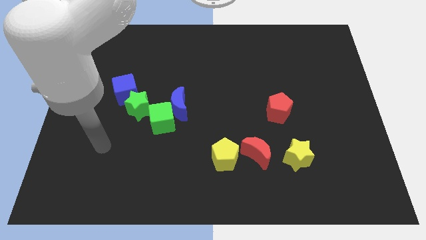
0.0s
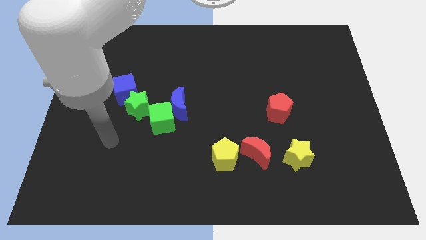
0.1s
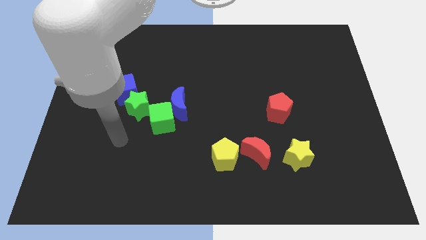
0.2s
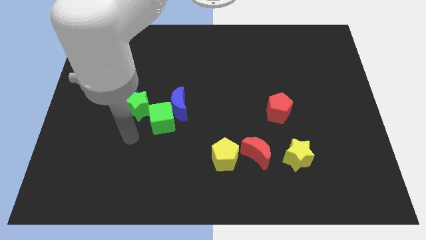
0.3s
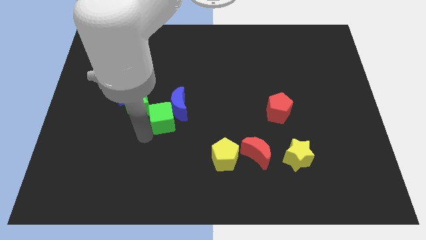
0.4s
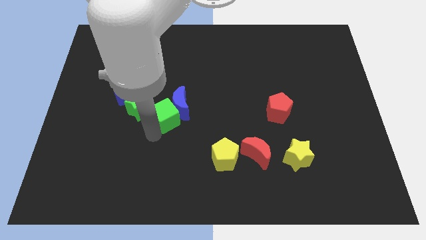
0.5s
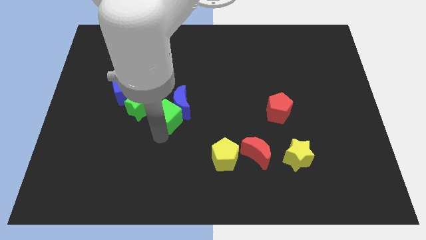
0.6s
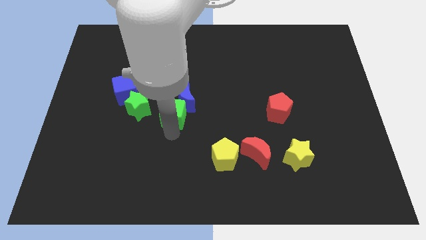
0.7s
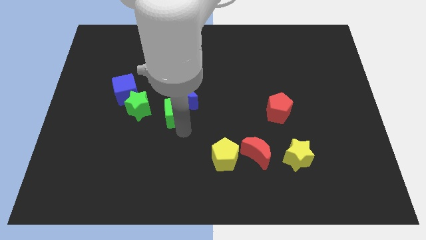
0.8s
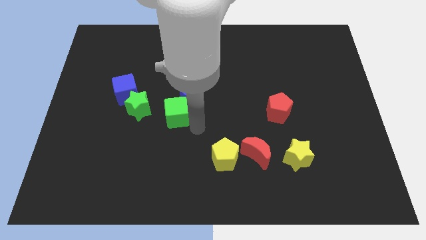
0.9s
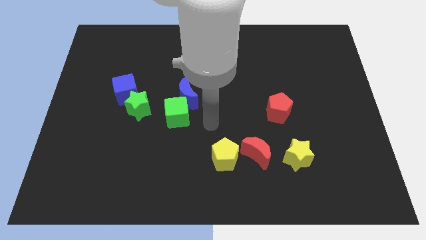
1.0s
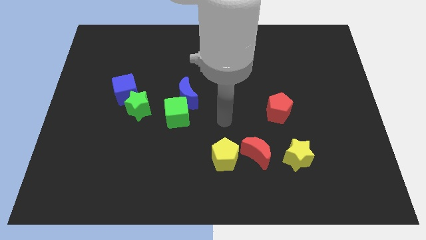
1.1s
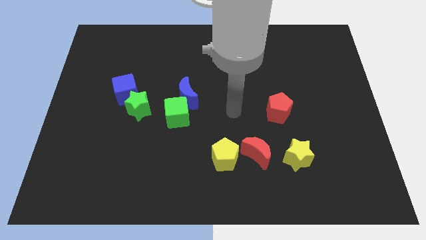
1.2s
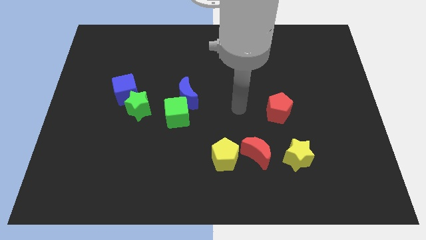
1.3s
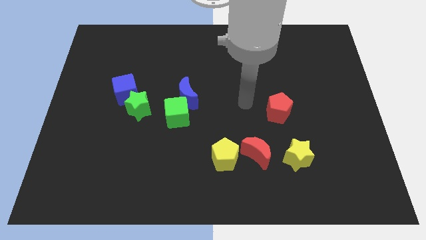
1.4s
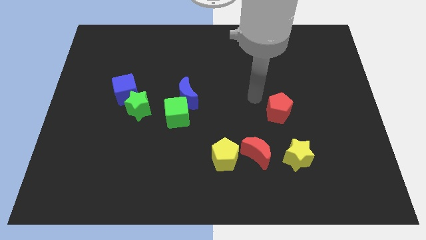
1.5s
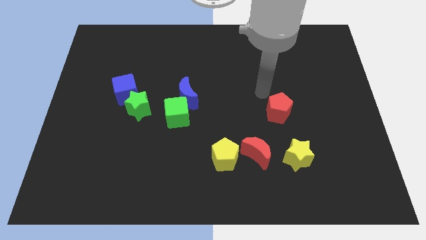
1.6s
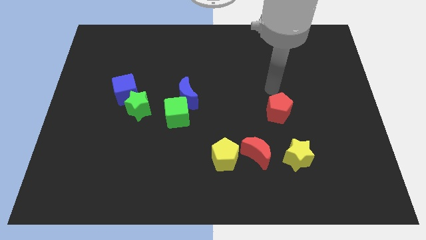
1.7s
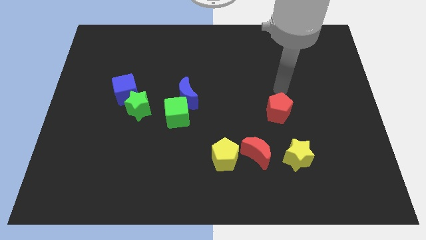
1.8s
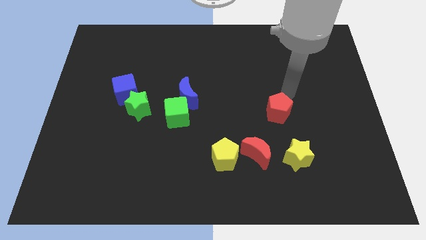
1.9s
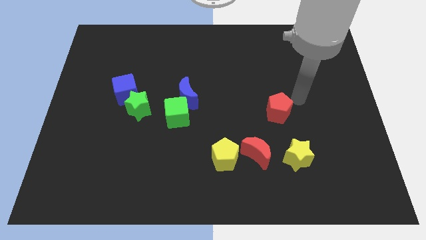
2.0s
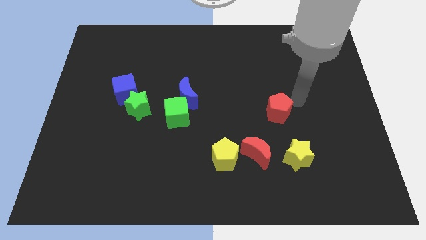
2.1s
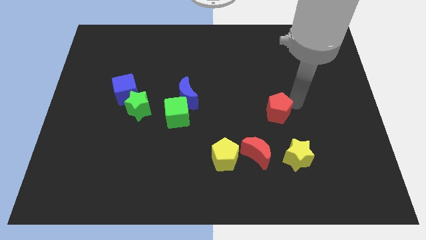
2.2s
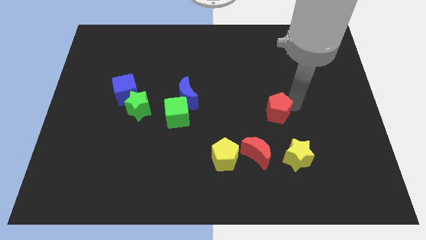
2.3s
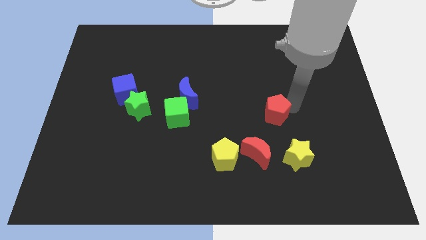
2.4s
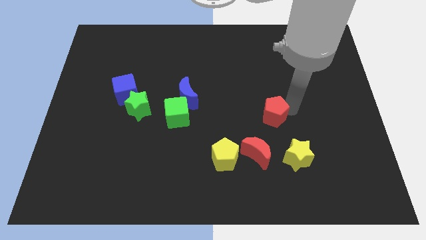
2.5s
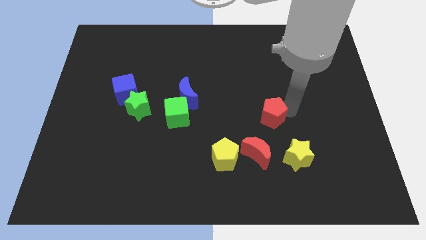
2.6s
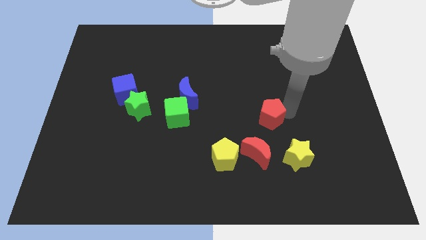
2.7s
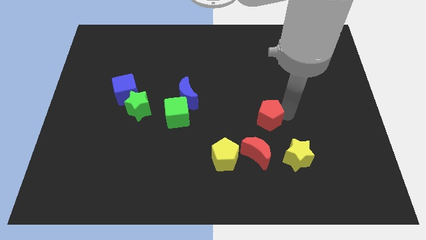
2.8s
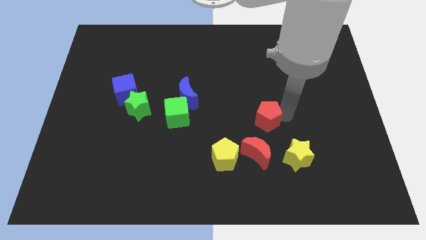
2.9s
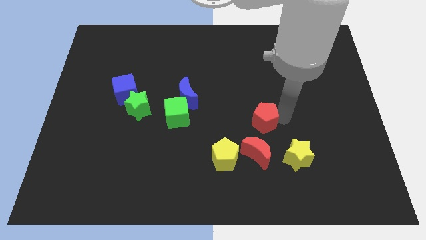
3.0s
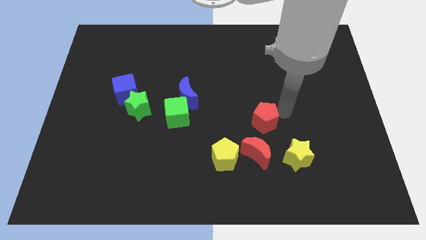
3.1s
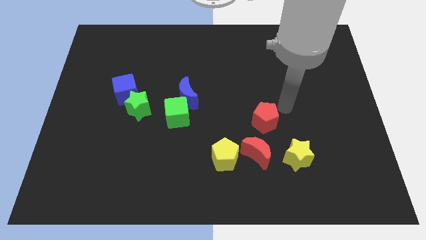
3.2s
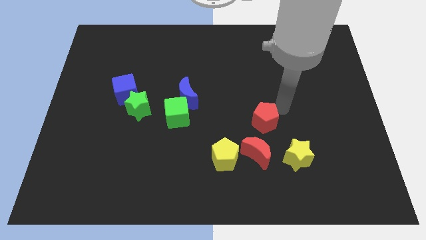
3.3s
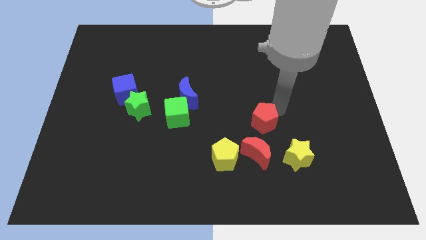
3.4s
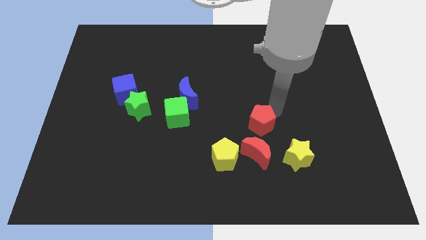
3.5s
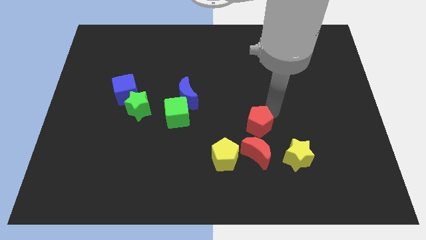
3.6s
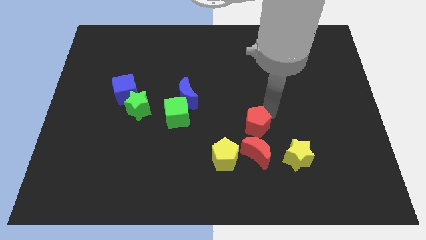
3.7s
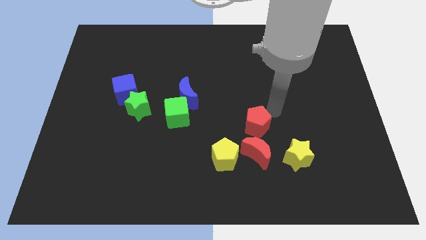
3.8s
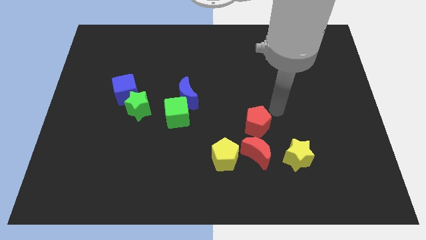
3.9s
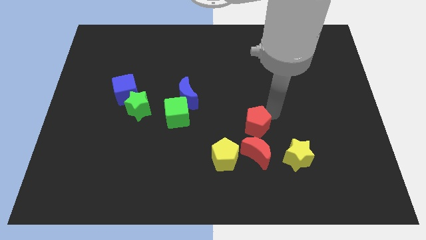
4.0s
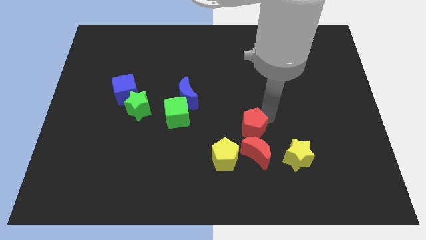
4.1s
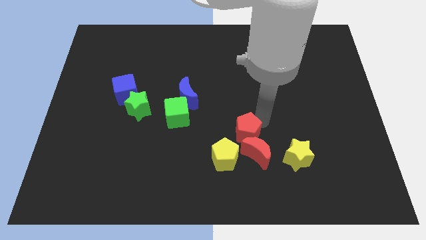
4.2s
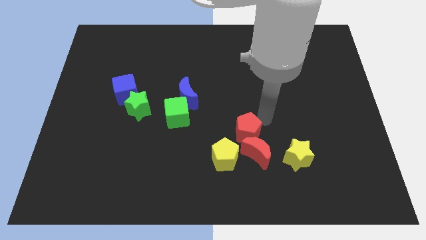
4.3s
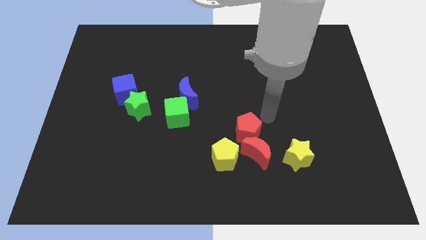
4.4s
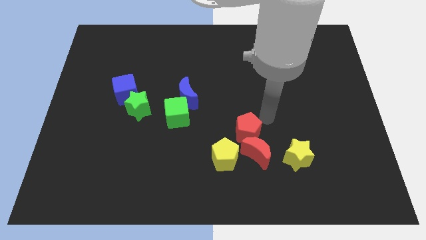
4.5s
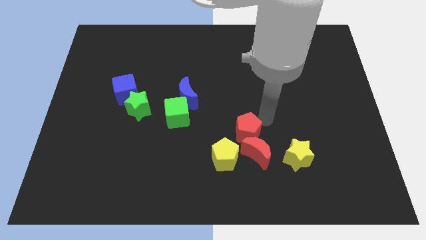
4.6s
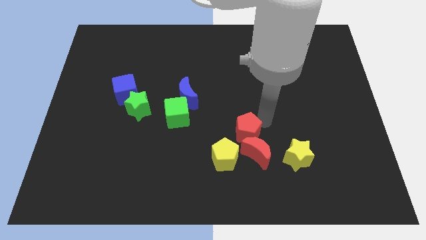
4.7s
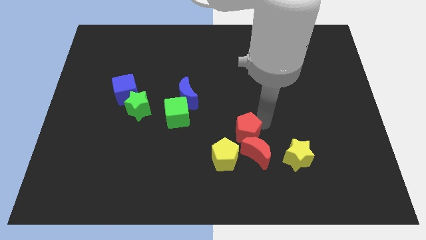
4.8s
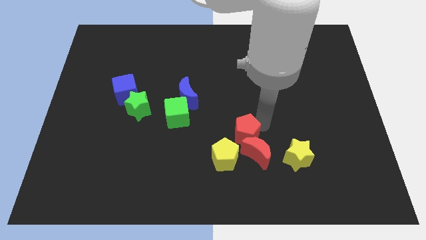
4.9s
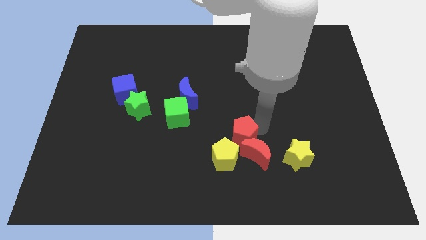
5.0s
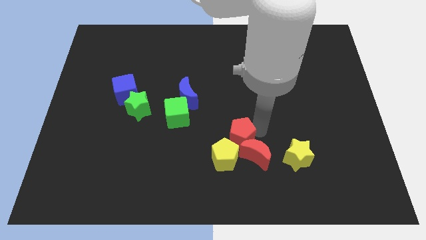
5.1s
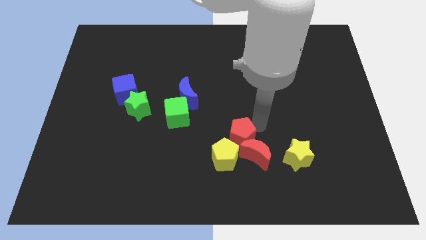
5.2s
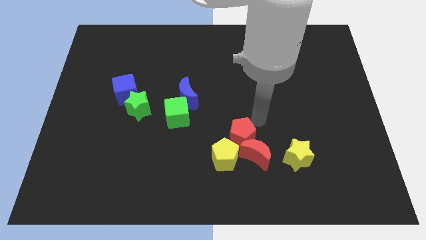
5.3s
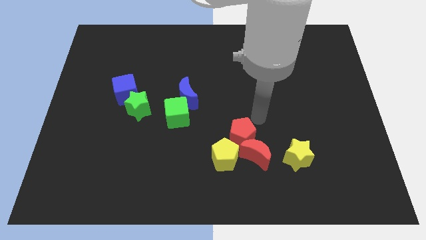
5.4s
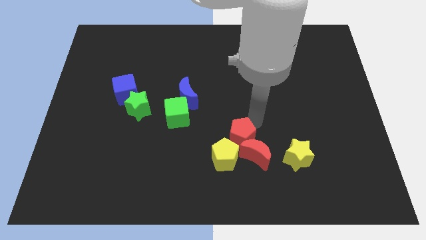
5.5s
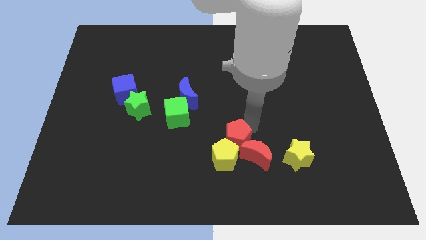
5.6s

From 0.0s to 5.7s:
slide the red pentagon to the yellow pentagon

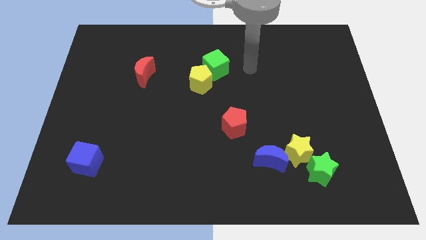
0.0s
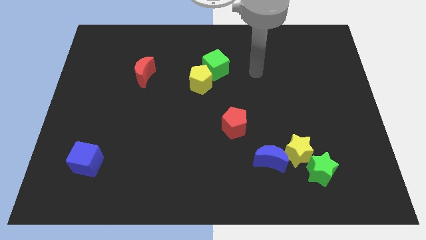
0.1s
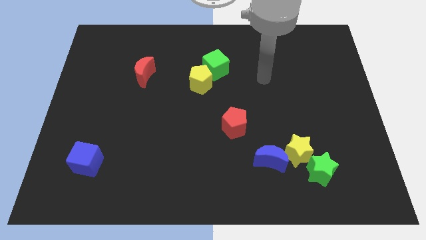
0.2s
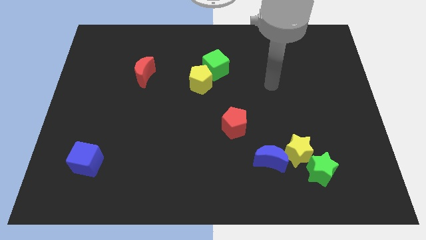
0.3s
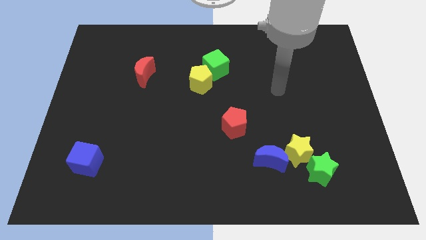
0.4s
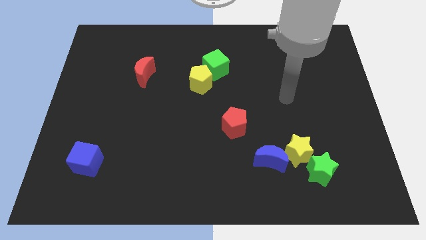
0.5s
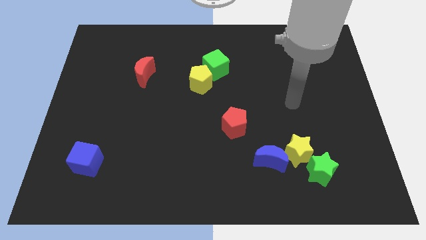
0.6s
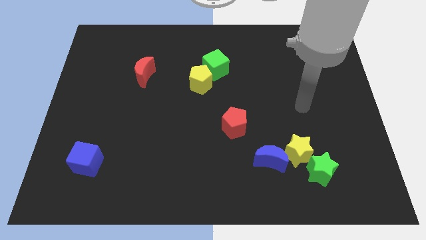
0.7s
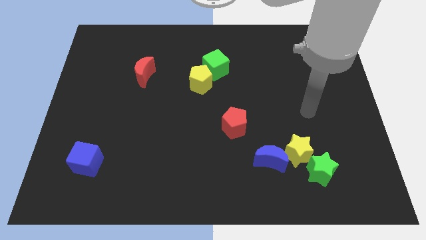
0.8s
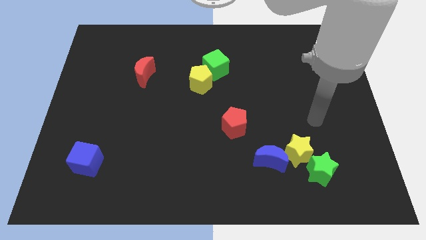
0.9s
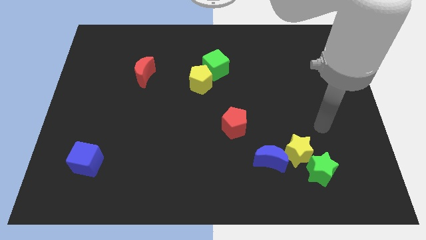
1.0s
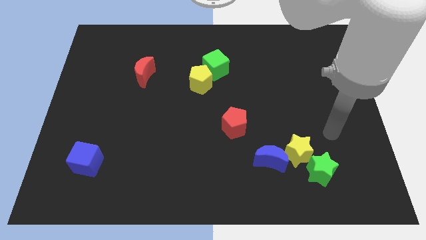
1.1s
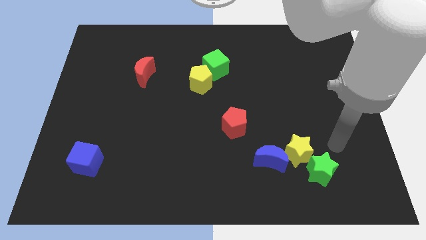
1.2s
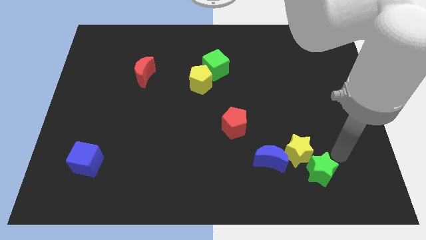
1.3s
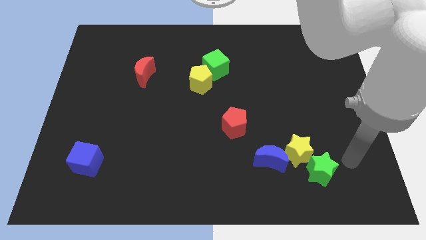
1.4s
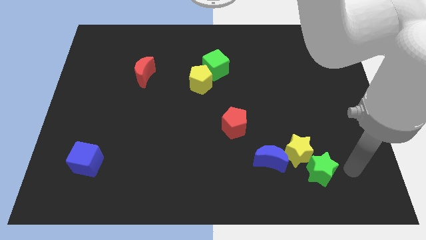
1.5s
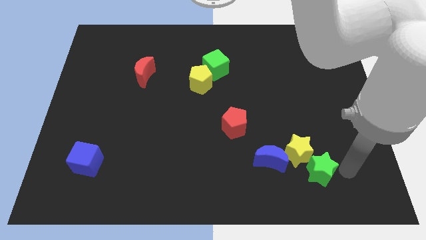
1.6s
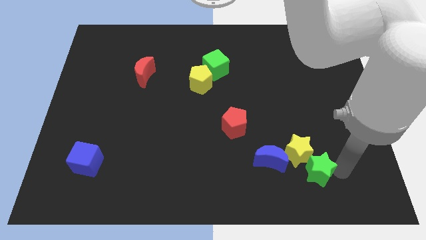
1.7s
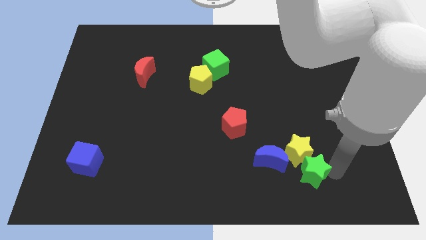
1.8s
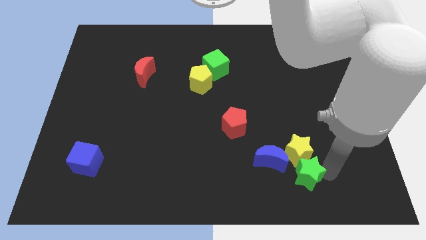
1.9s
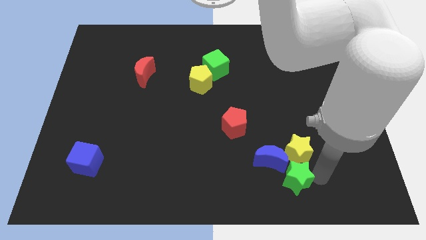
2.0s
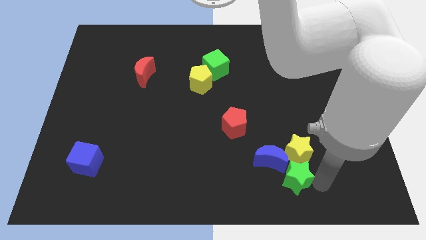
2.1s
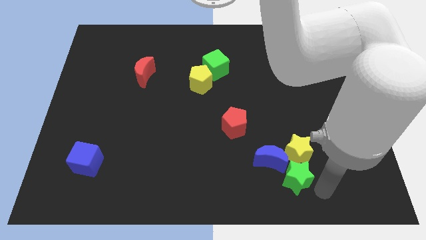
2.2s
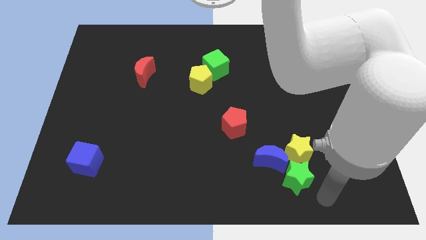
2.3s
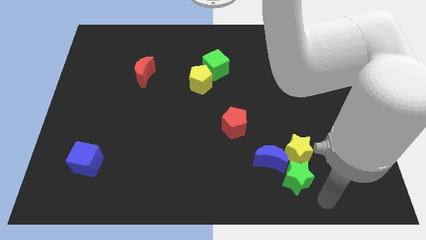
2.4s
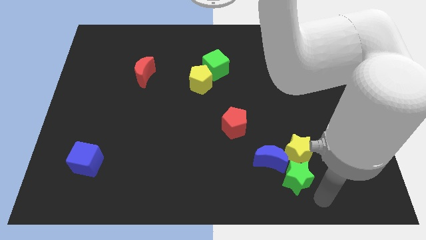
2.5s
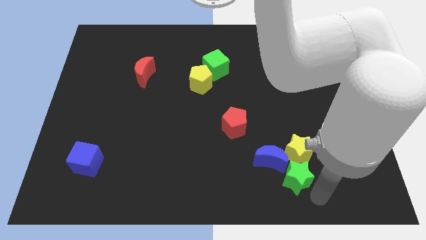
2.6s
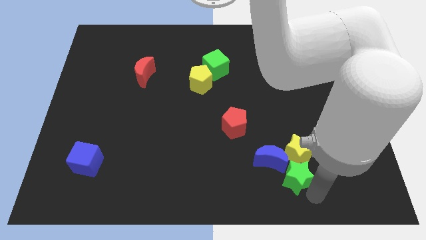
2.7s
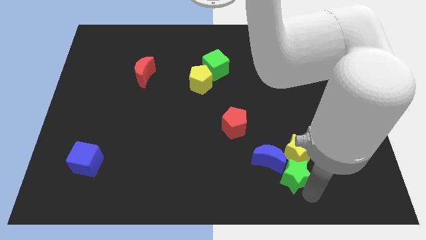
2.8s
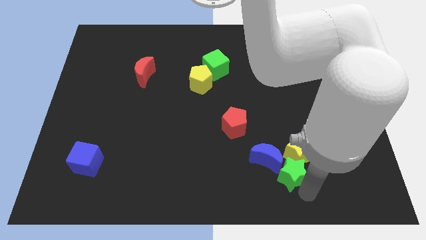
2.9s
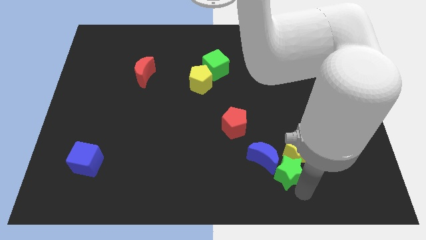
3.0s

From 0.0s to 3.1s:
slide the green star to the blue moon
